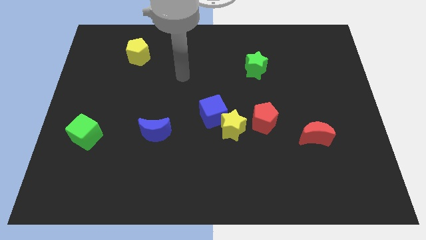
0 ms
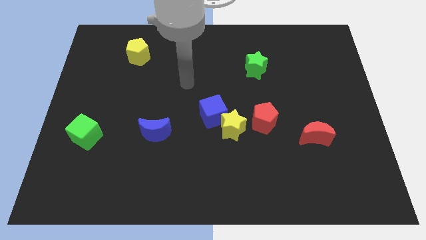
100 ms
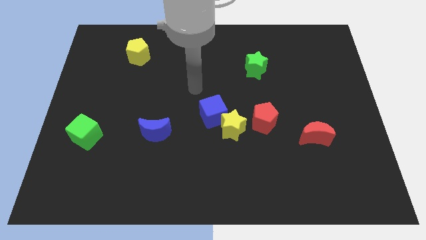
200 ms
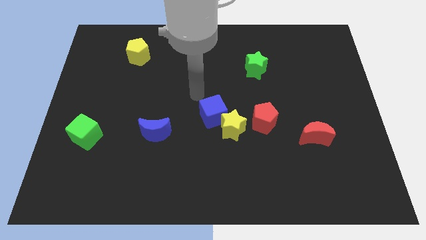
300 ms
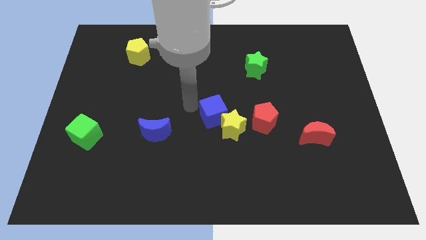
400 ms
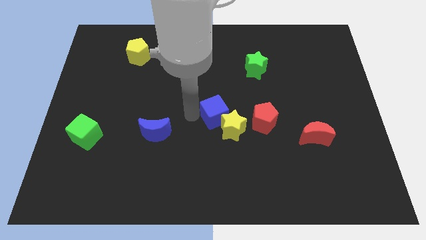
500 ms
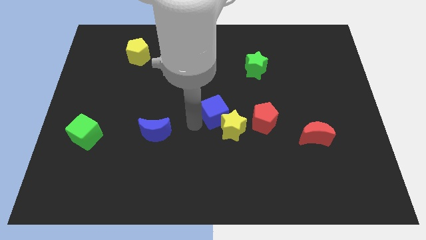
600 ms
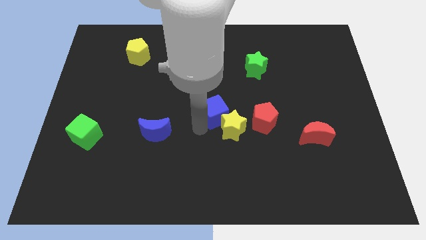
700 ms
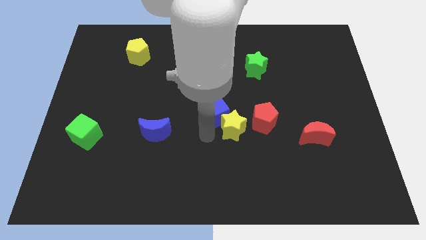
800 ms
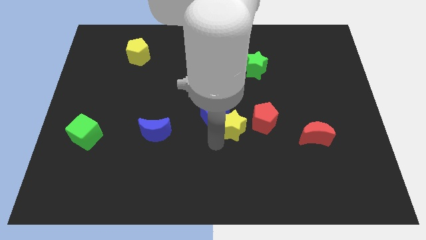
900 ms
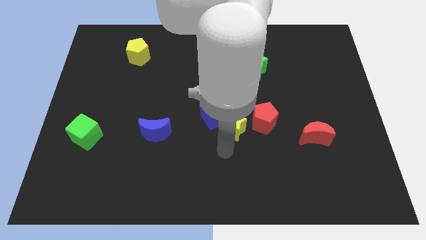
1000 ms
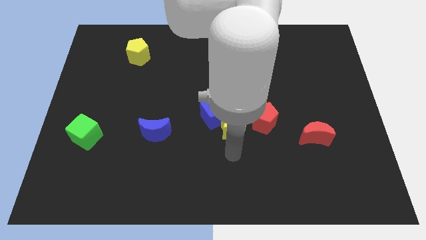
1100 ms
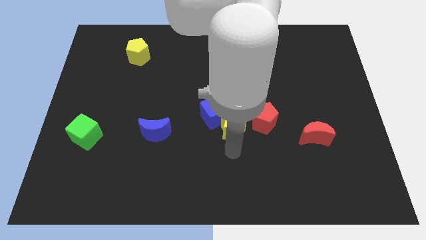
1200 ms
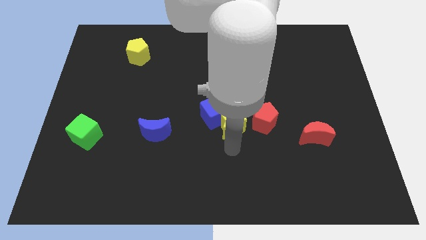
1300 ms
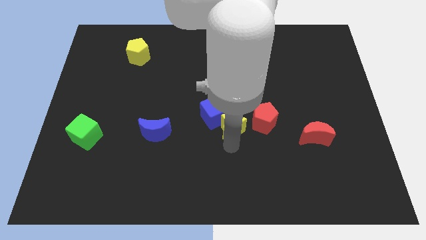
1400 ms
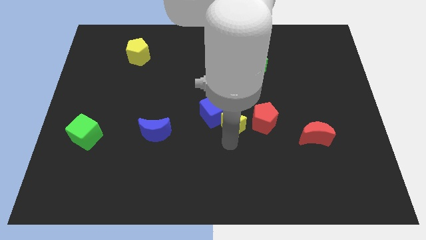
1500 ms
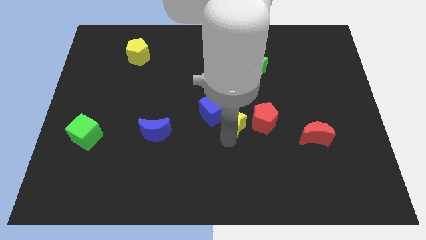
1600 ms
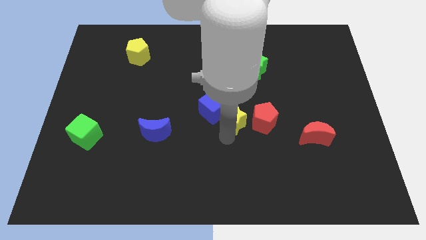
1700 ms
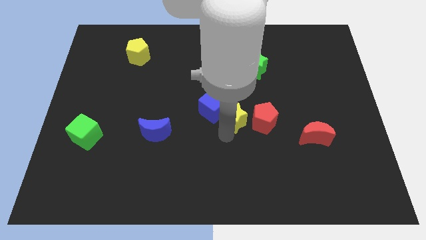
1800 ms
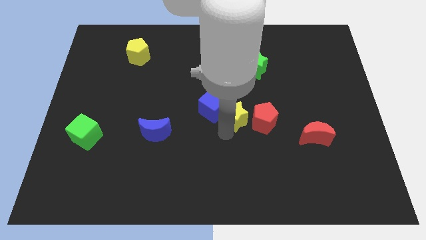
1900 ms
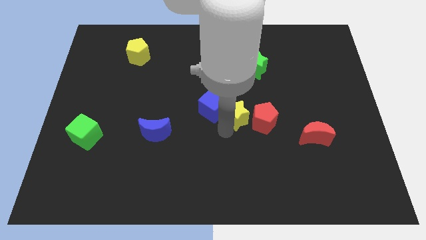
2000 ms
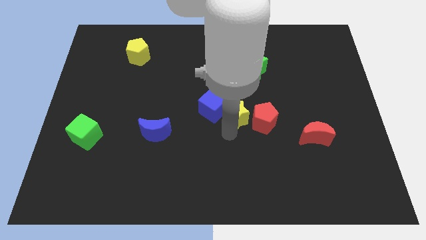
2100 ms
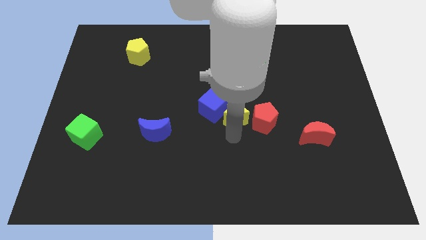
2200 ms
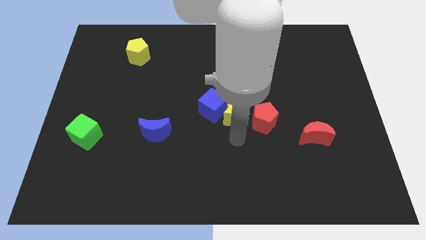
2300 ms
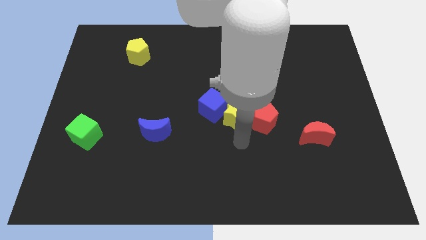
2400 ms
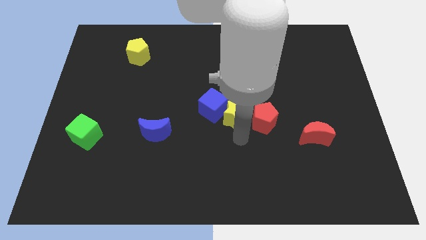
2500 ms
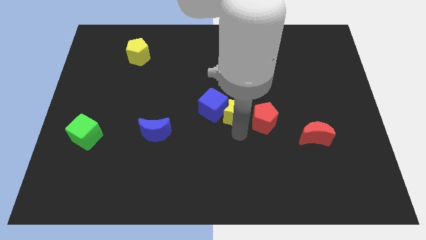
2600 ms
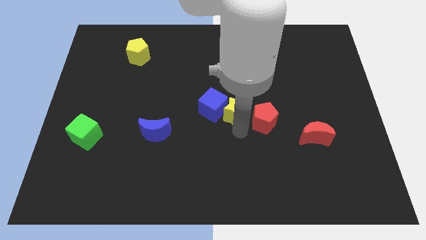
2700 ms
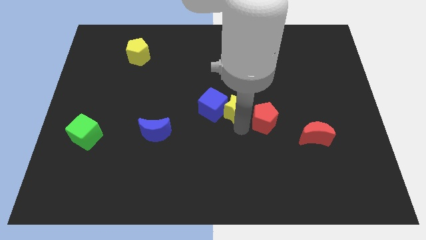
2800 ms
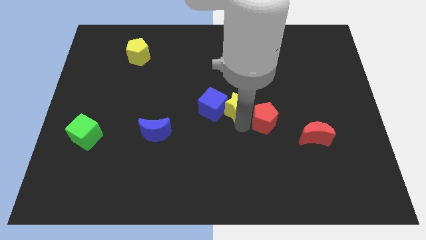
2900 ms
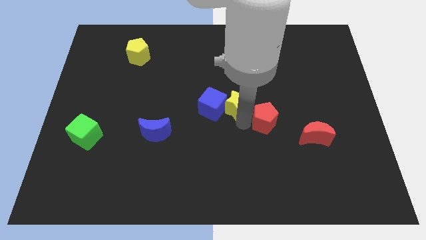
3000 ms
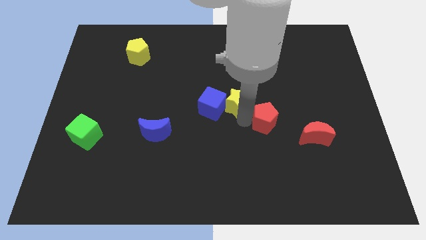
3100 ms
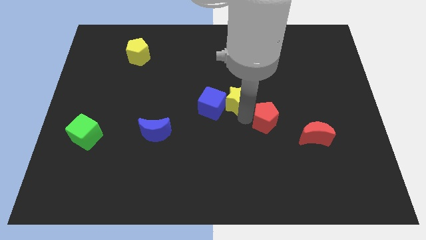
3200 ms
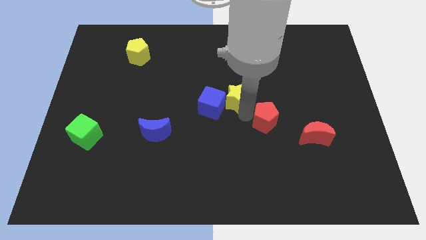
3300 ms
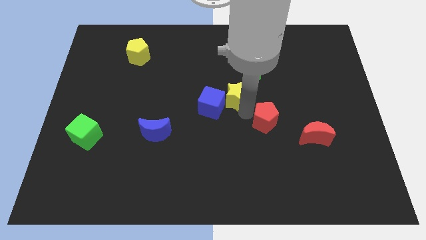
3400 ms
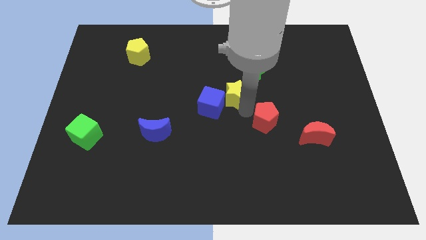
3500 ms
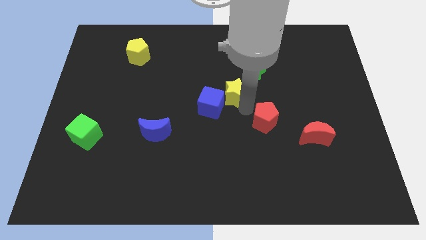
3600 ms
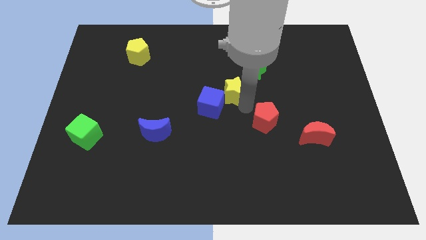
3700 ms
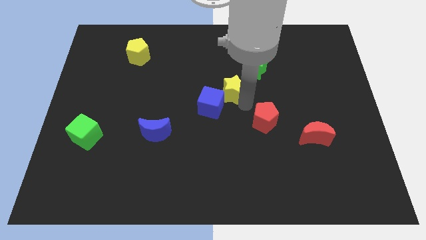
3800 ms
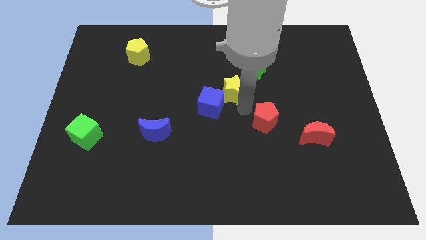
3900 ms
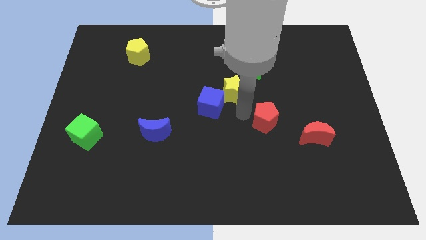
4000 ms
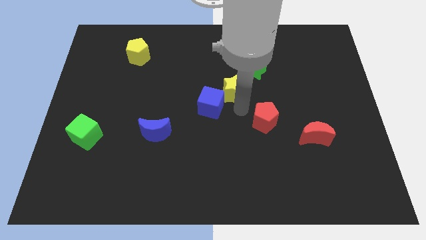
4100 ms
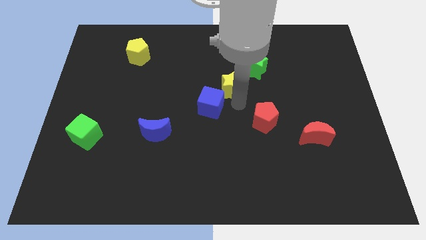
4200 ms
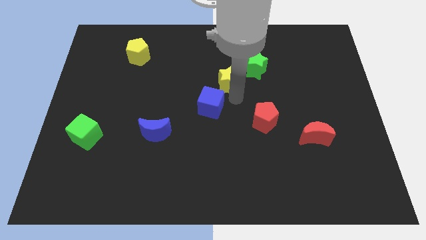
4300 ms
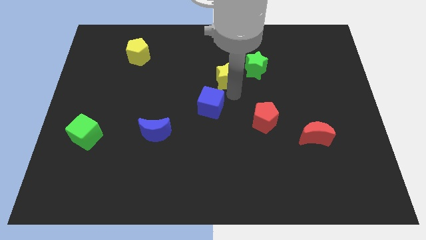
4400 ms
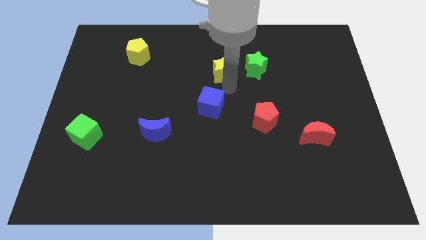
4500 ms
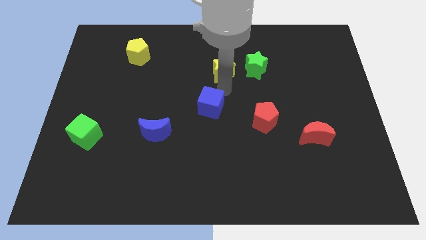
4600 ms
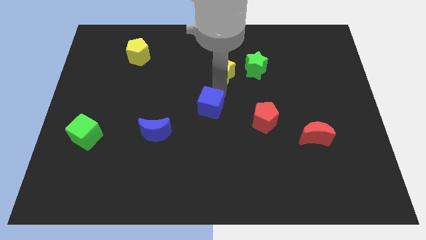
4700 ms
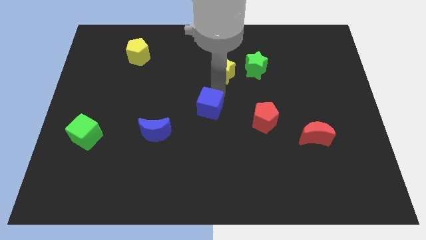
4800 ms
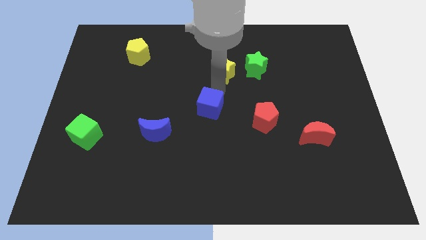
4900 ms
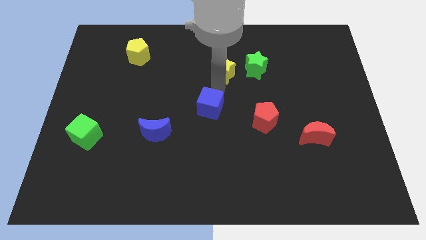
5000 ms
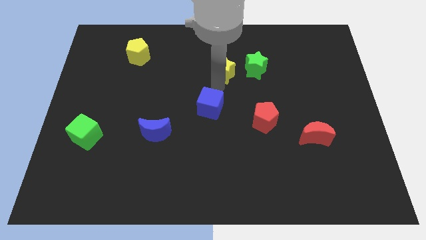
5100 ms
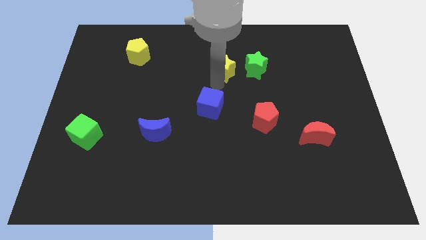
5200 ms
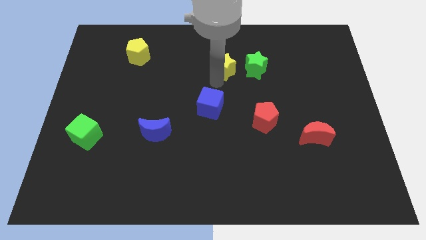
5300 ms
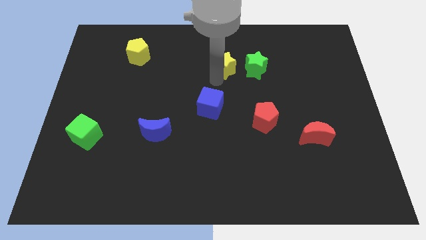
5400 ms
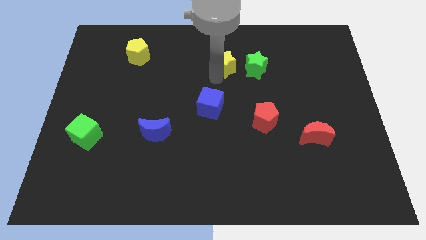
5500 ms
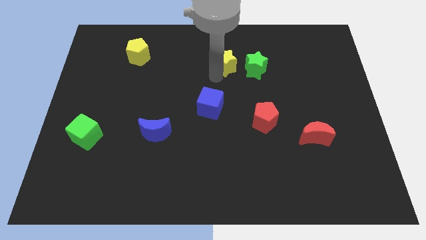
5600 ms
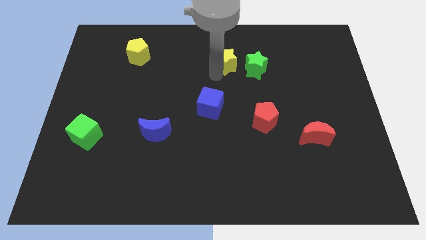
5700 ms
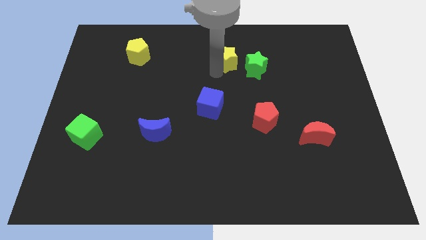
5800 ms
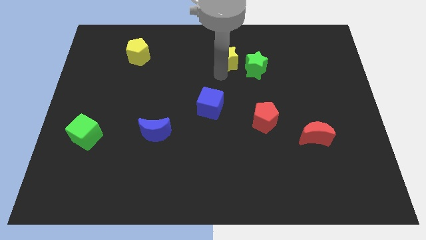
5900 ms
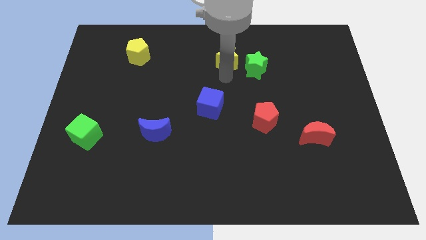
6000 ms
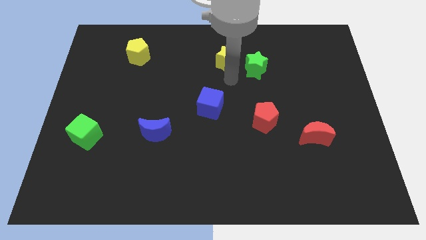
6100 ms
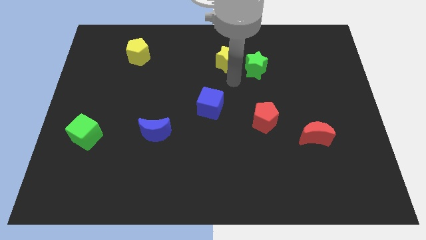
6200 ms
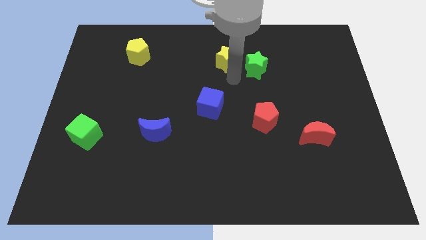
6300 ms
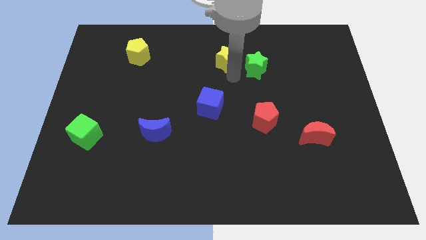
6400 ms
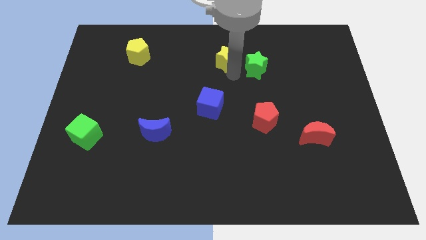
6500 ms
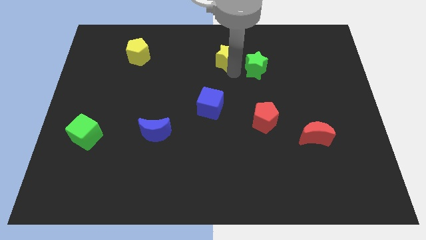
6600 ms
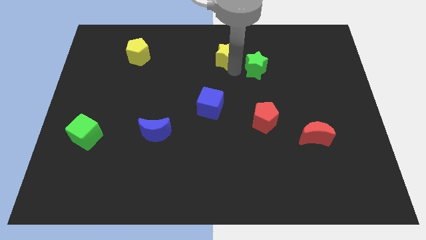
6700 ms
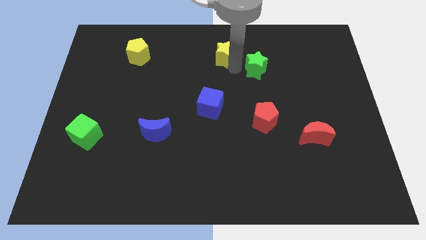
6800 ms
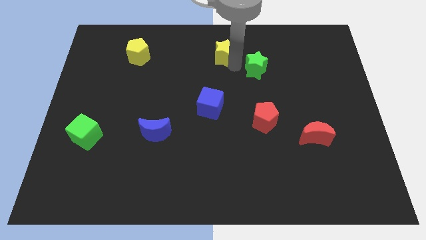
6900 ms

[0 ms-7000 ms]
put the yellow star to the towards your base

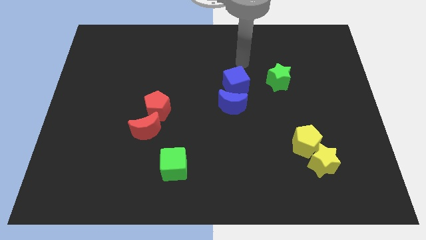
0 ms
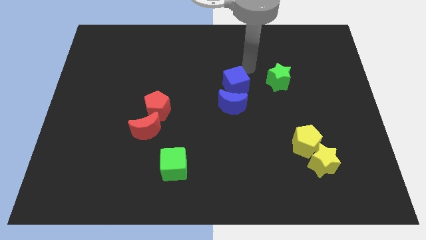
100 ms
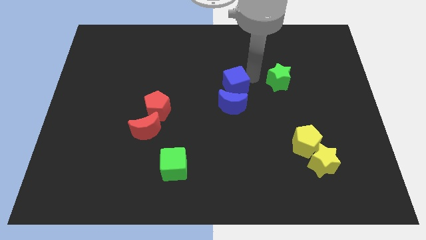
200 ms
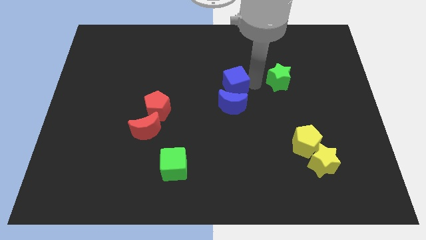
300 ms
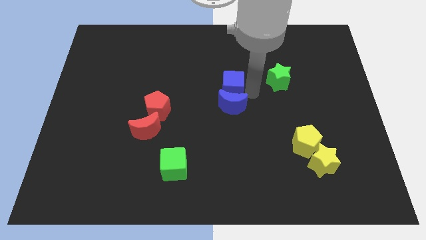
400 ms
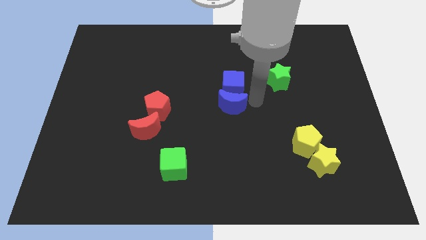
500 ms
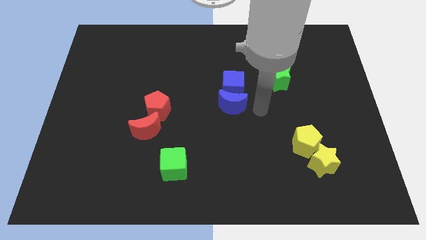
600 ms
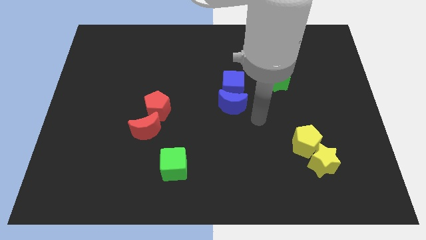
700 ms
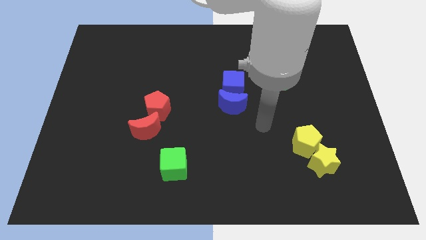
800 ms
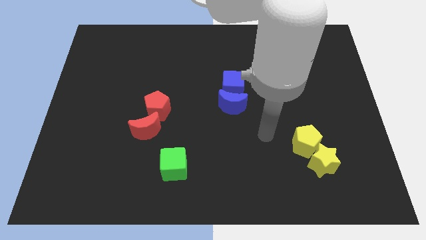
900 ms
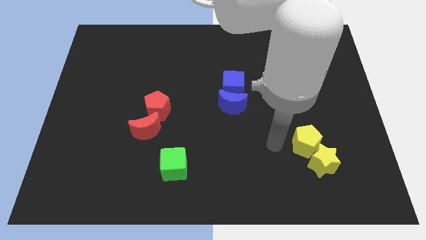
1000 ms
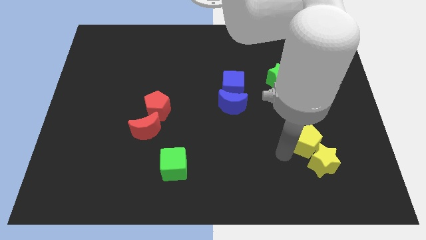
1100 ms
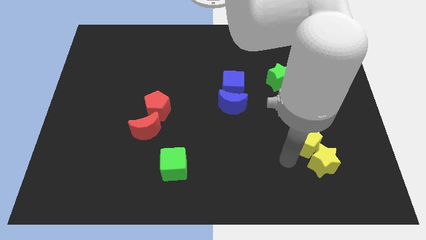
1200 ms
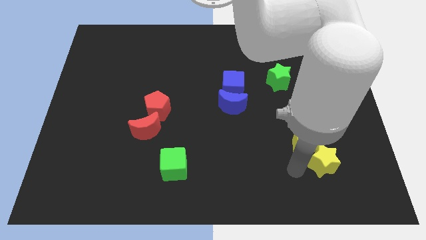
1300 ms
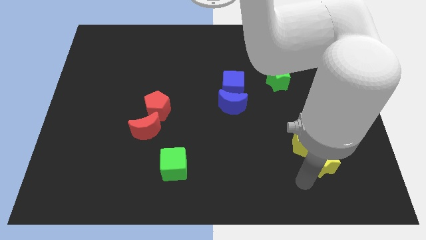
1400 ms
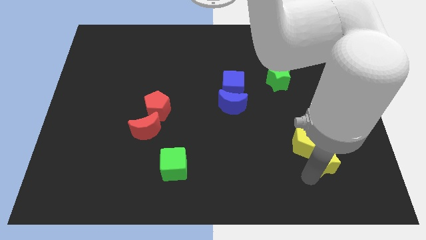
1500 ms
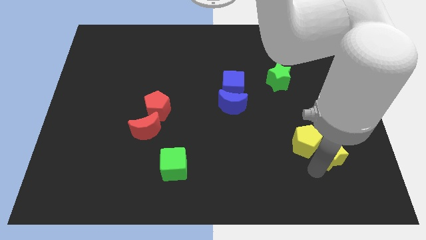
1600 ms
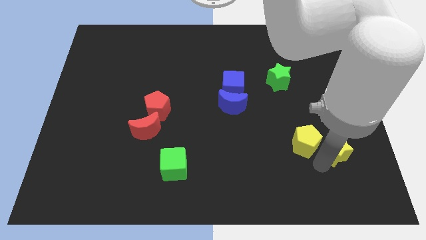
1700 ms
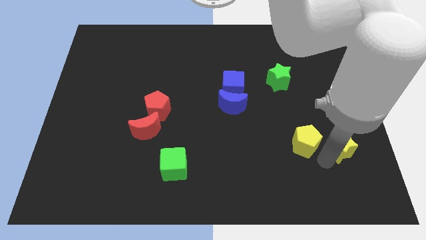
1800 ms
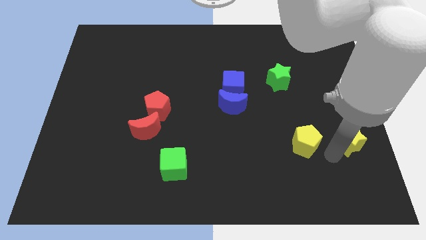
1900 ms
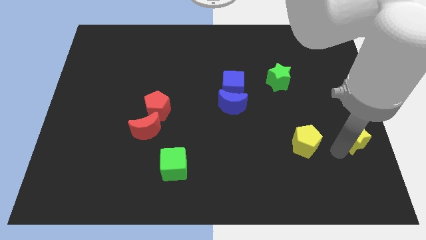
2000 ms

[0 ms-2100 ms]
put the yellow star to the center right
